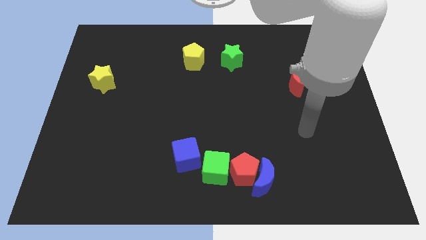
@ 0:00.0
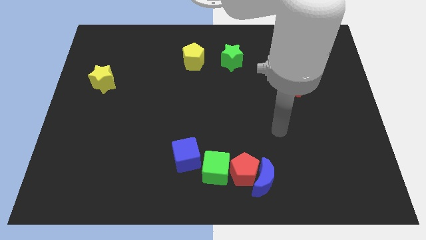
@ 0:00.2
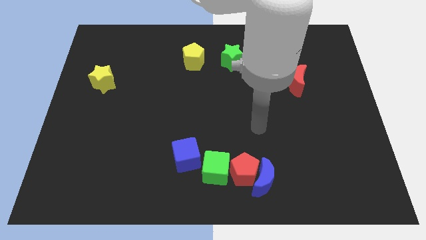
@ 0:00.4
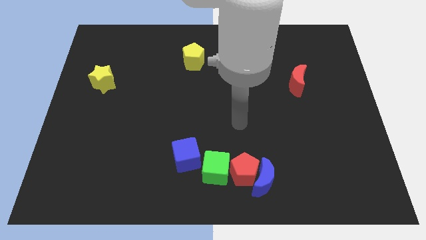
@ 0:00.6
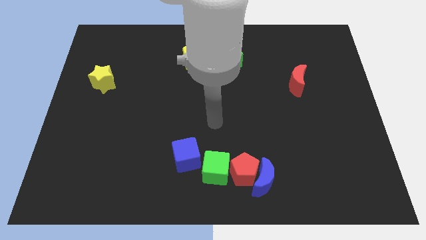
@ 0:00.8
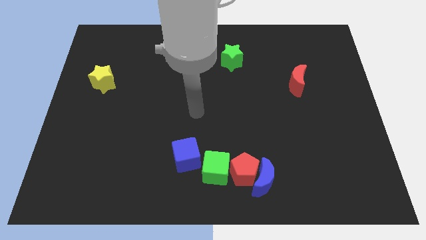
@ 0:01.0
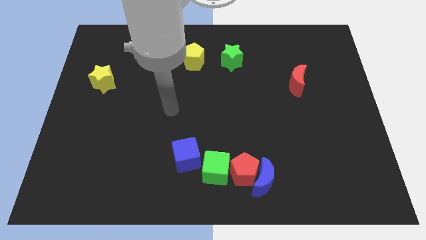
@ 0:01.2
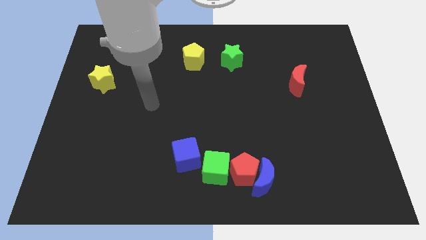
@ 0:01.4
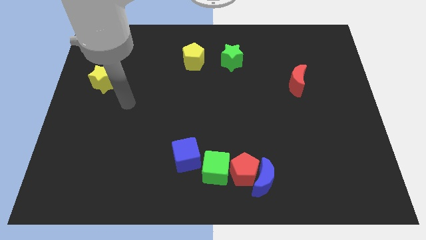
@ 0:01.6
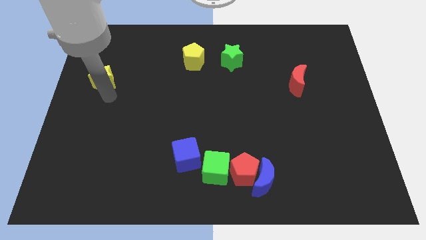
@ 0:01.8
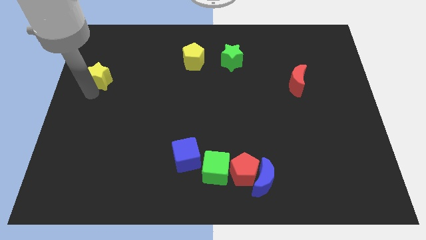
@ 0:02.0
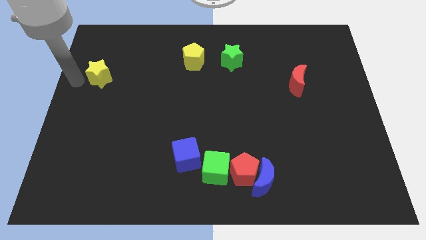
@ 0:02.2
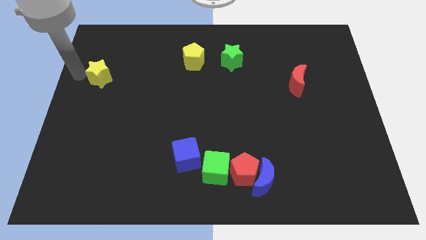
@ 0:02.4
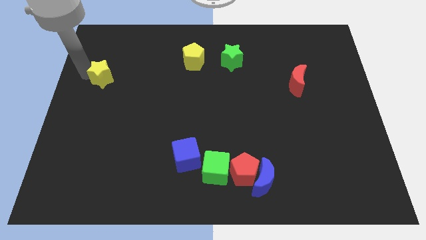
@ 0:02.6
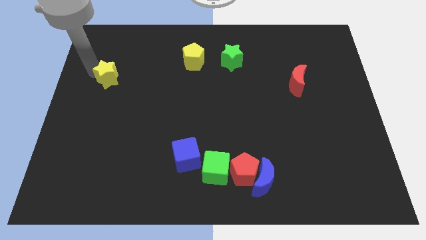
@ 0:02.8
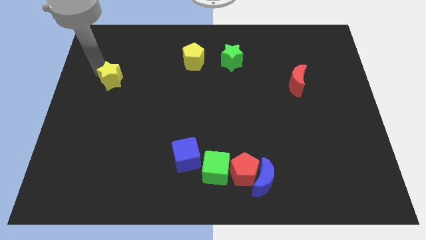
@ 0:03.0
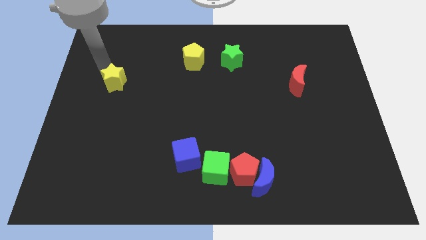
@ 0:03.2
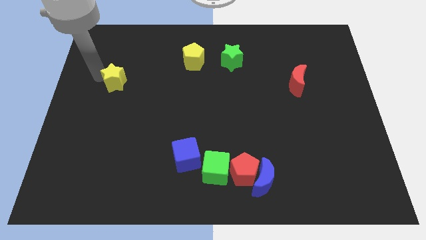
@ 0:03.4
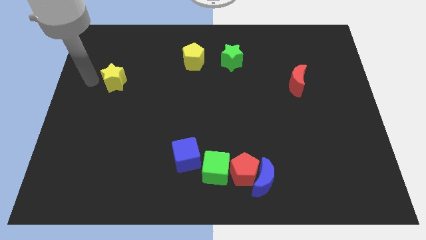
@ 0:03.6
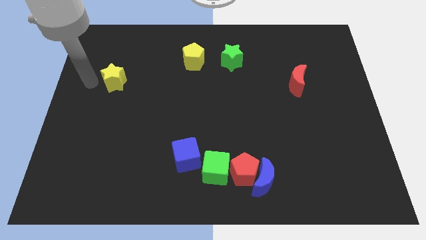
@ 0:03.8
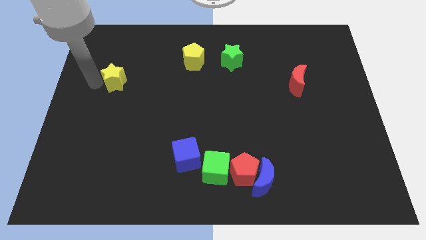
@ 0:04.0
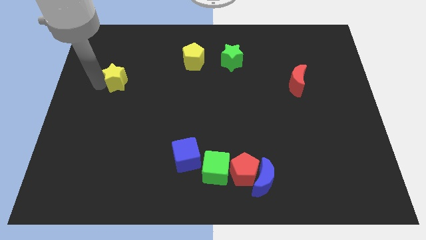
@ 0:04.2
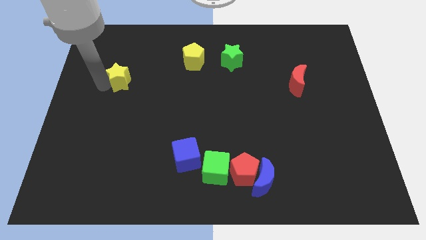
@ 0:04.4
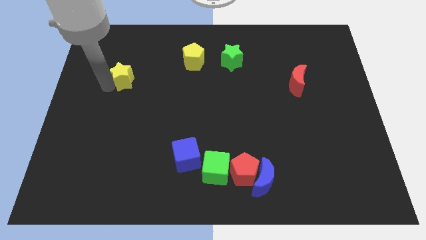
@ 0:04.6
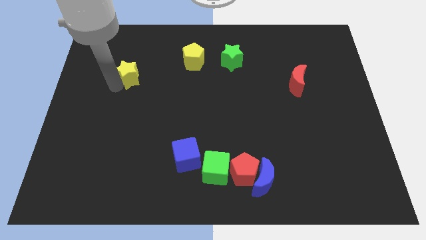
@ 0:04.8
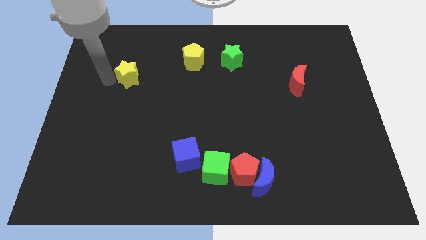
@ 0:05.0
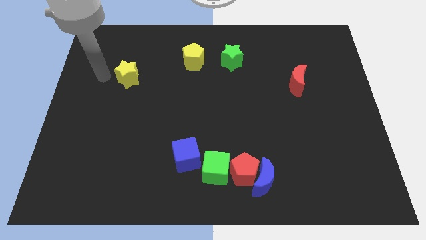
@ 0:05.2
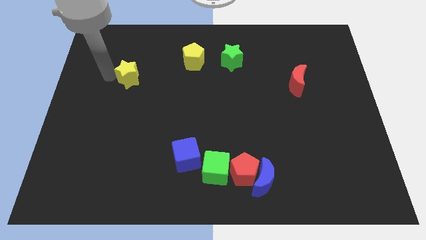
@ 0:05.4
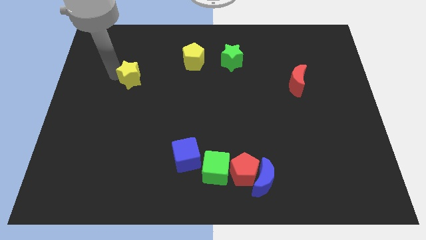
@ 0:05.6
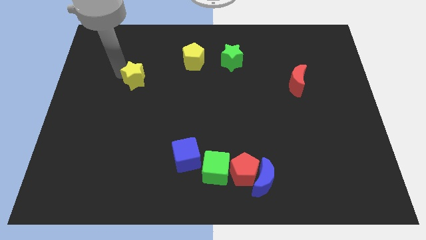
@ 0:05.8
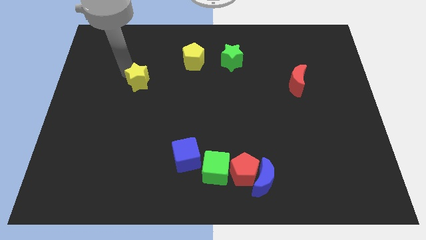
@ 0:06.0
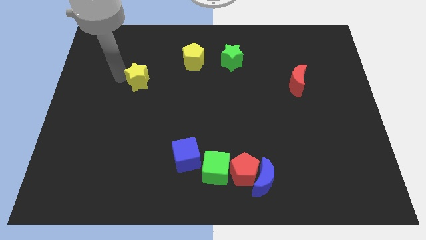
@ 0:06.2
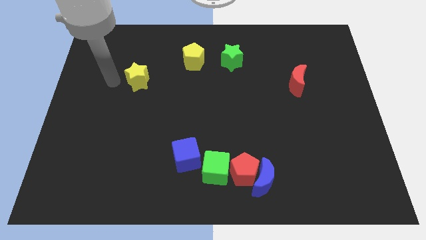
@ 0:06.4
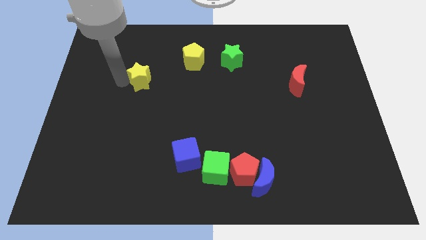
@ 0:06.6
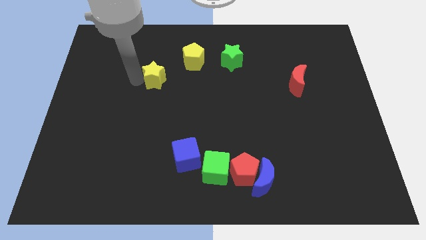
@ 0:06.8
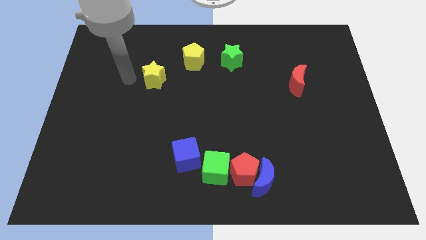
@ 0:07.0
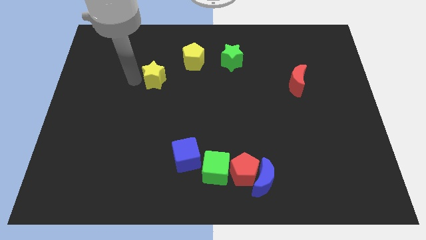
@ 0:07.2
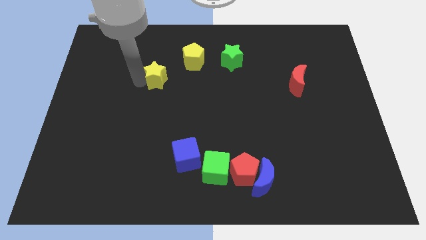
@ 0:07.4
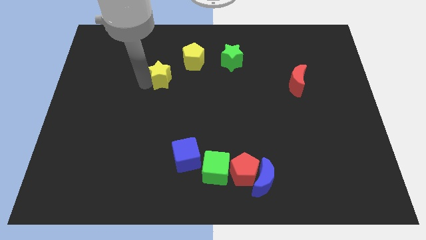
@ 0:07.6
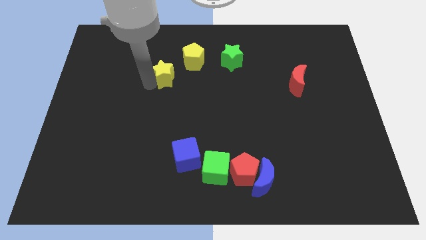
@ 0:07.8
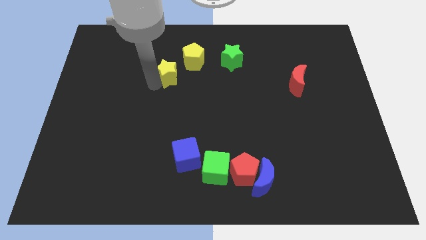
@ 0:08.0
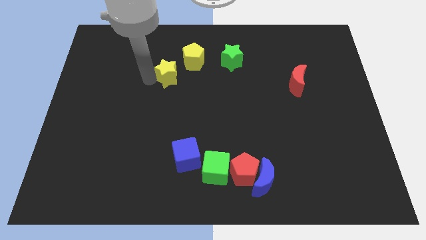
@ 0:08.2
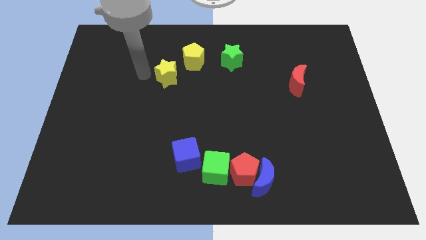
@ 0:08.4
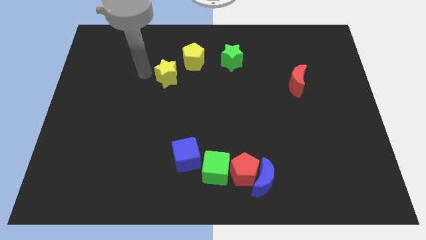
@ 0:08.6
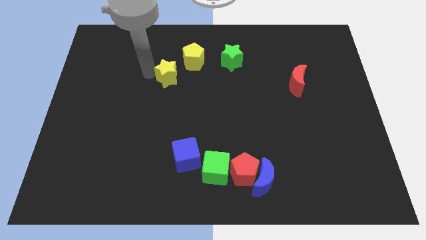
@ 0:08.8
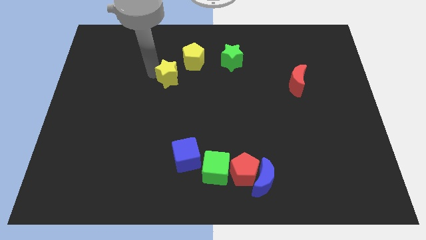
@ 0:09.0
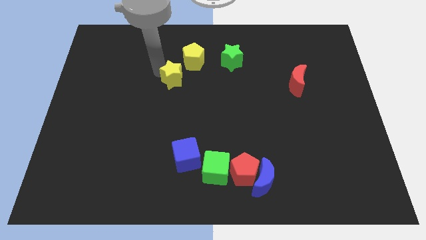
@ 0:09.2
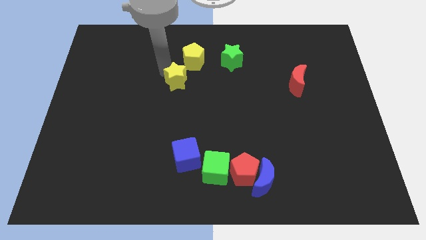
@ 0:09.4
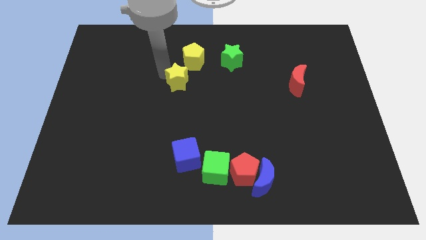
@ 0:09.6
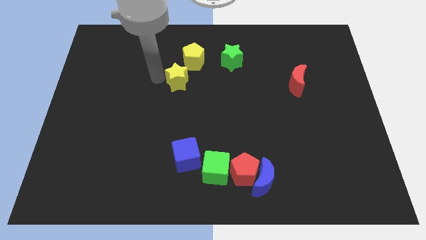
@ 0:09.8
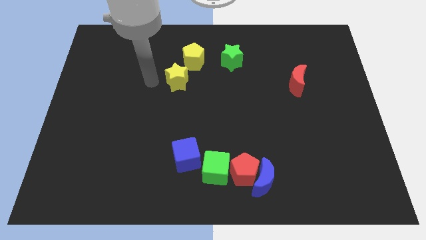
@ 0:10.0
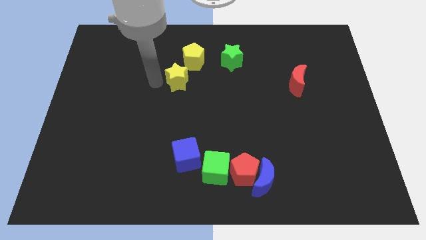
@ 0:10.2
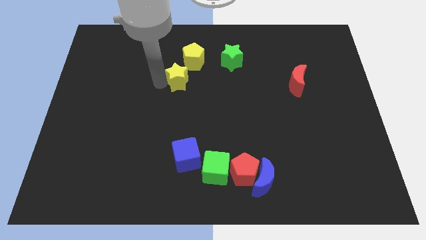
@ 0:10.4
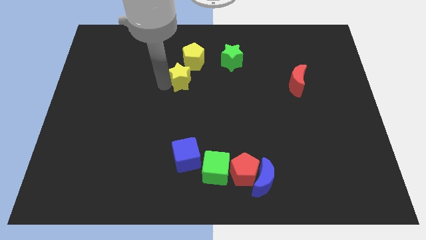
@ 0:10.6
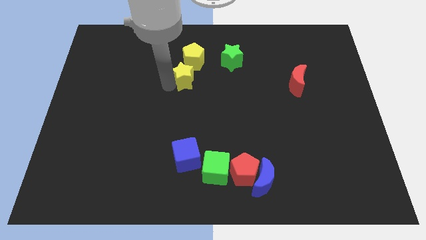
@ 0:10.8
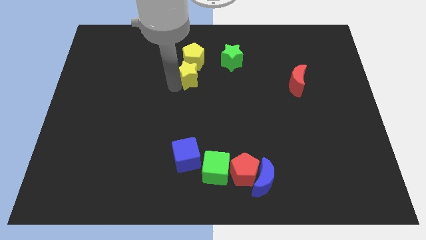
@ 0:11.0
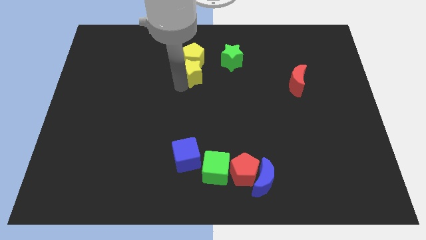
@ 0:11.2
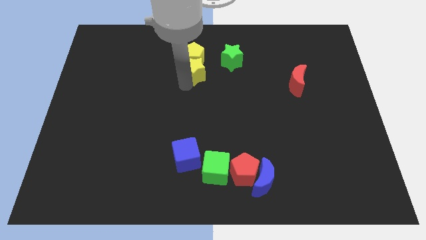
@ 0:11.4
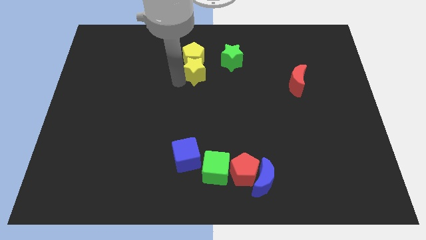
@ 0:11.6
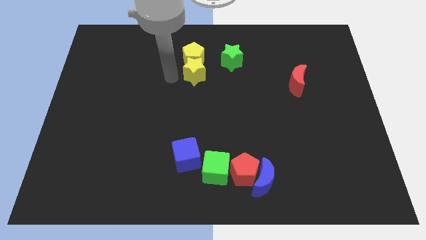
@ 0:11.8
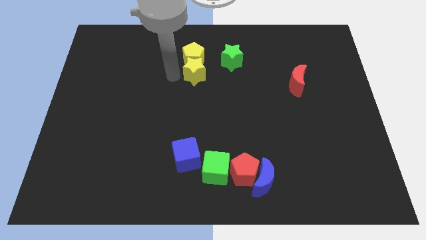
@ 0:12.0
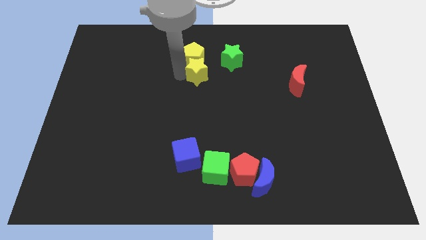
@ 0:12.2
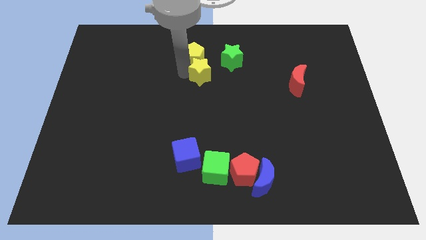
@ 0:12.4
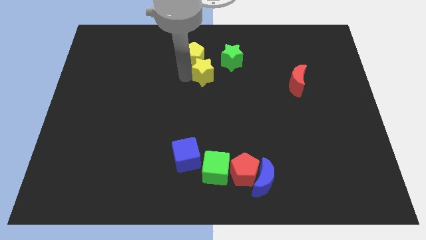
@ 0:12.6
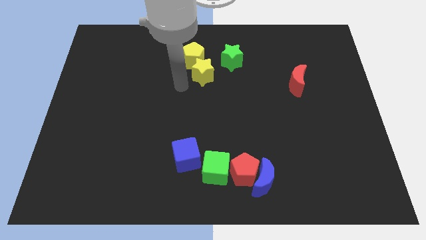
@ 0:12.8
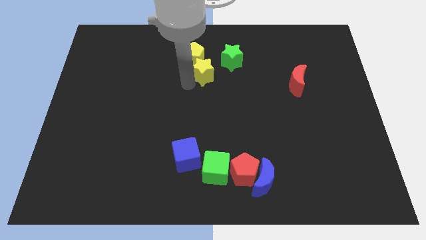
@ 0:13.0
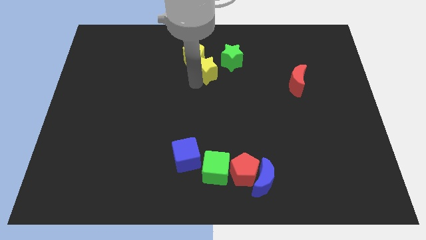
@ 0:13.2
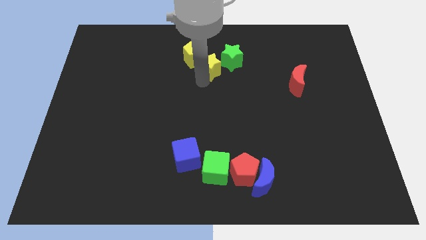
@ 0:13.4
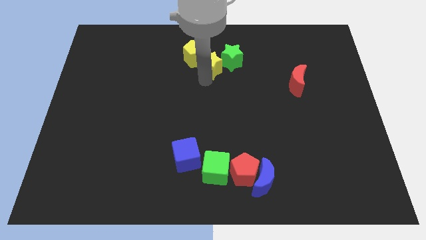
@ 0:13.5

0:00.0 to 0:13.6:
push the yellow star close to the green star

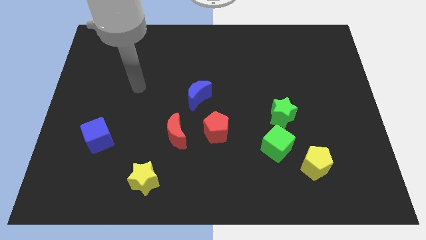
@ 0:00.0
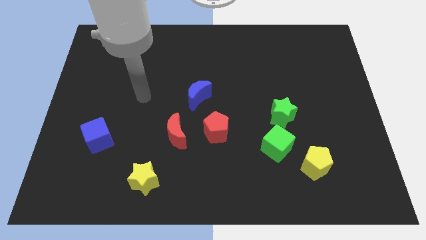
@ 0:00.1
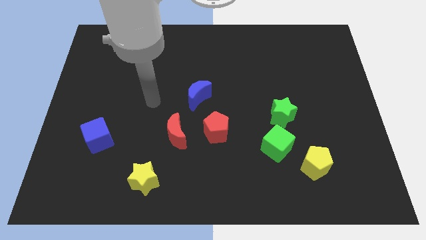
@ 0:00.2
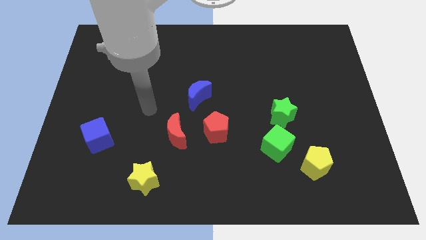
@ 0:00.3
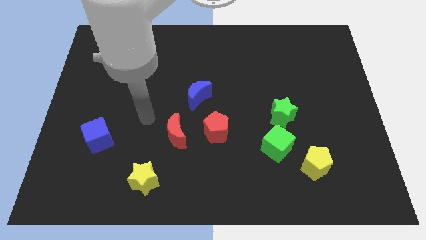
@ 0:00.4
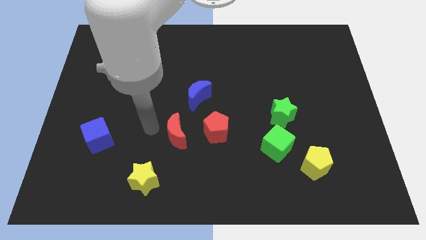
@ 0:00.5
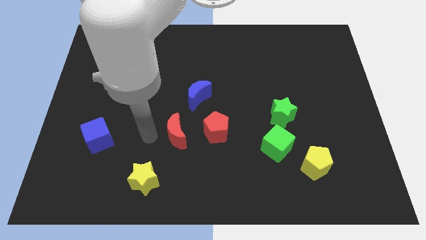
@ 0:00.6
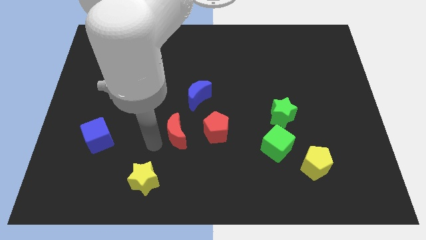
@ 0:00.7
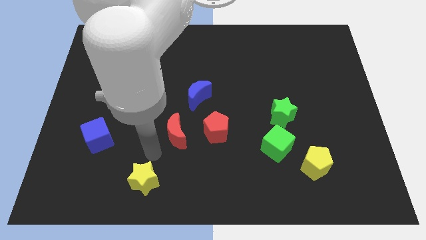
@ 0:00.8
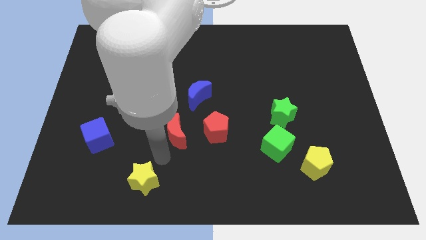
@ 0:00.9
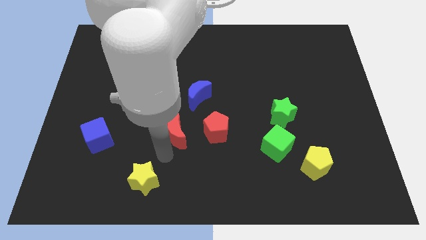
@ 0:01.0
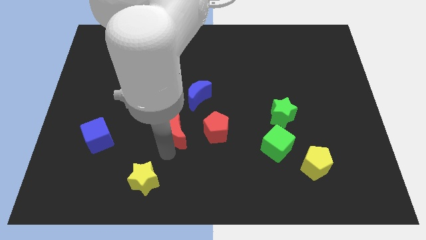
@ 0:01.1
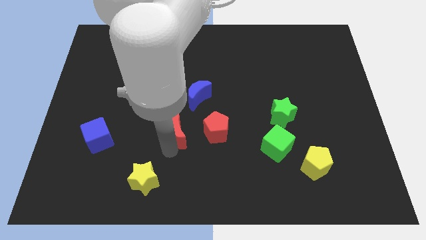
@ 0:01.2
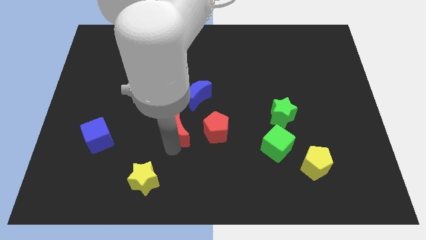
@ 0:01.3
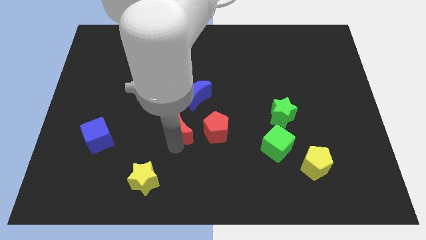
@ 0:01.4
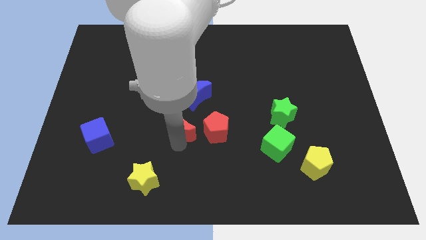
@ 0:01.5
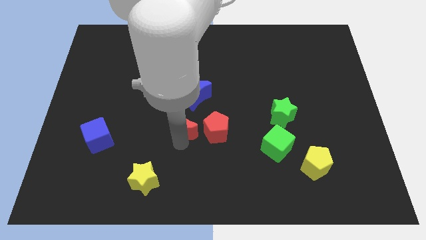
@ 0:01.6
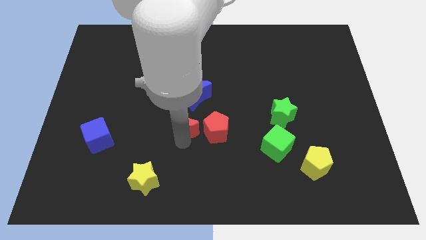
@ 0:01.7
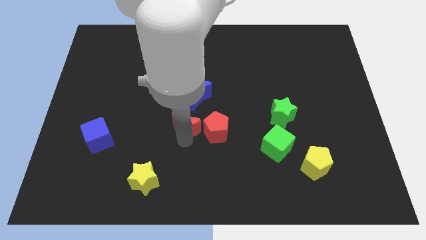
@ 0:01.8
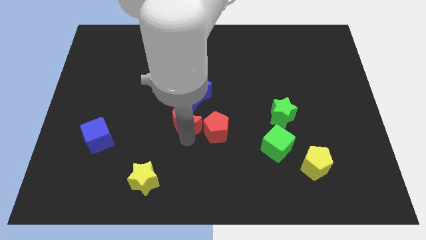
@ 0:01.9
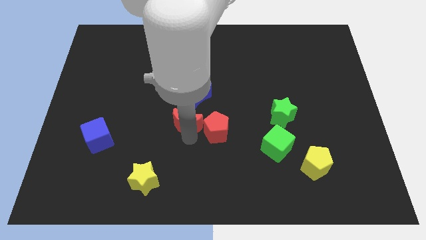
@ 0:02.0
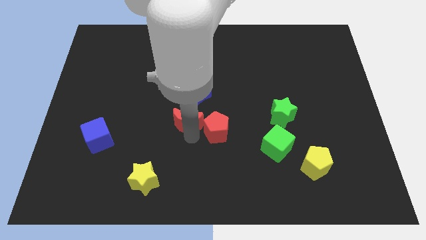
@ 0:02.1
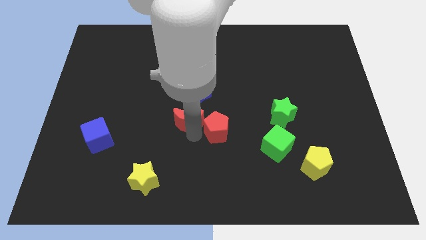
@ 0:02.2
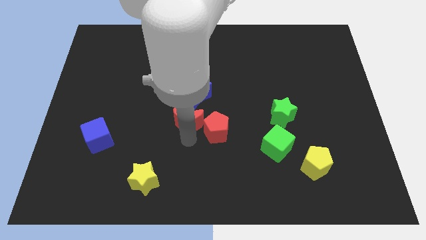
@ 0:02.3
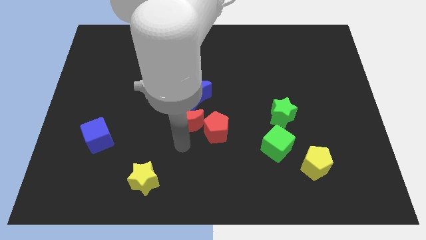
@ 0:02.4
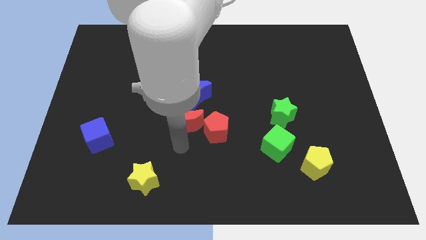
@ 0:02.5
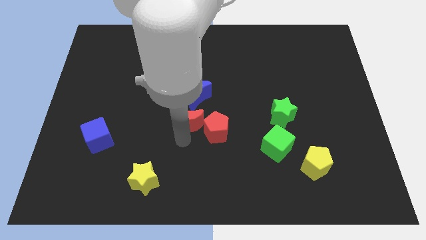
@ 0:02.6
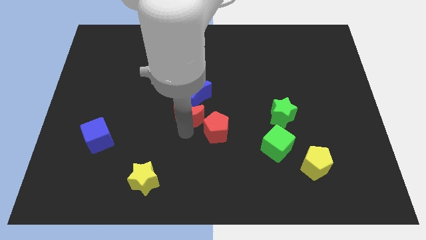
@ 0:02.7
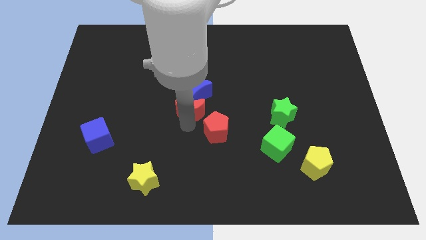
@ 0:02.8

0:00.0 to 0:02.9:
slide the red moon to the blue moon
